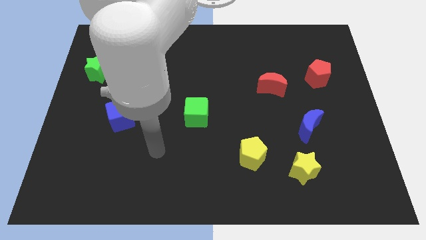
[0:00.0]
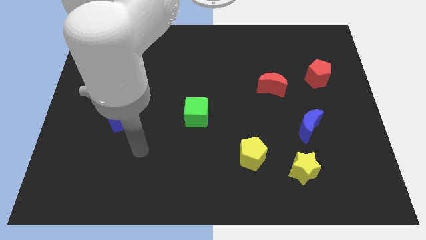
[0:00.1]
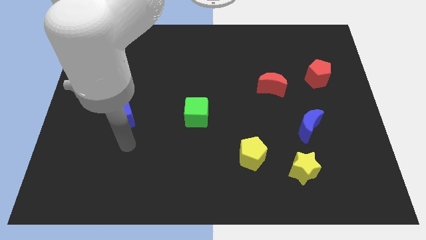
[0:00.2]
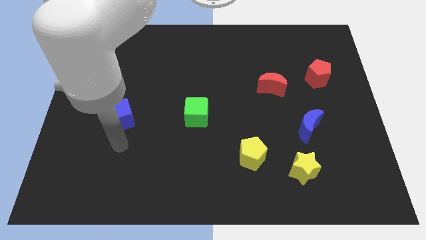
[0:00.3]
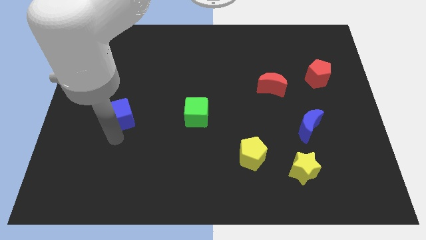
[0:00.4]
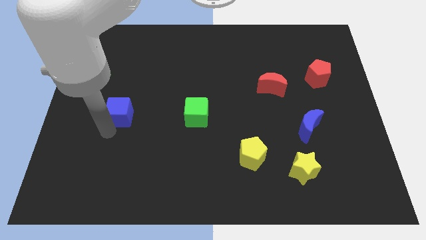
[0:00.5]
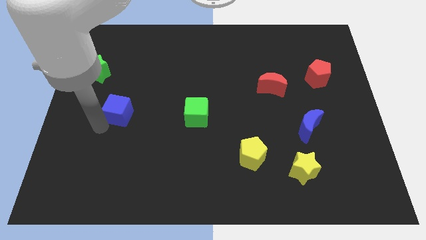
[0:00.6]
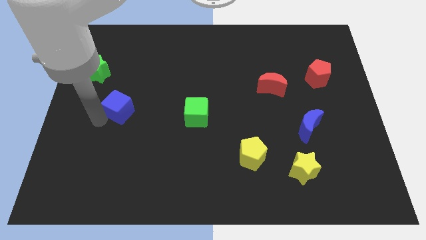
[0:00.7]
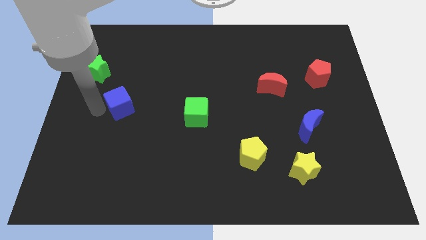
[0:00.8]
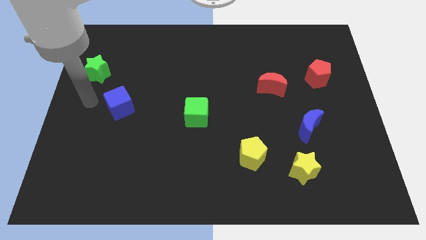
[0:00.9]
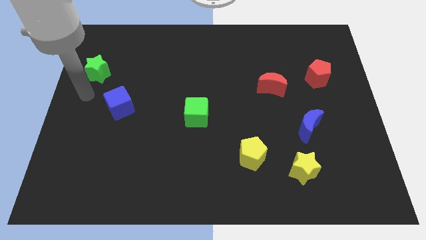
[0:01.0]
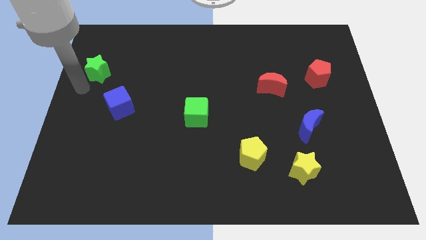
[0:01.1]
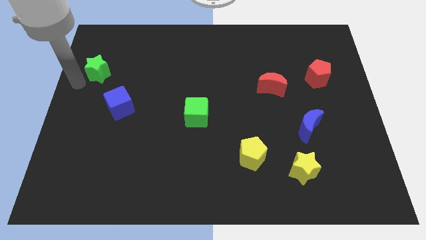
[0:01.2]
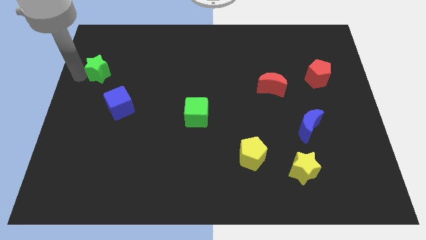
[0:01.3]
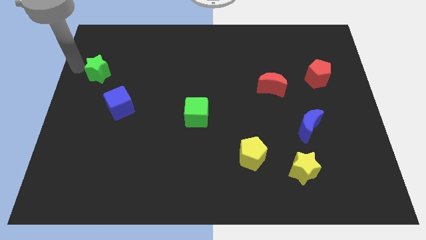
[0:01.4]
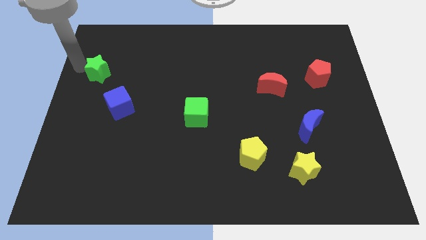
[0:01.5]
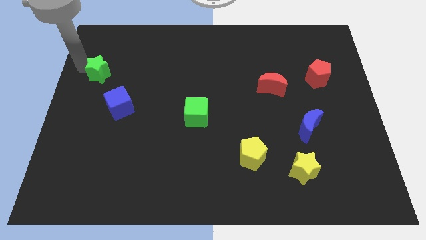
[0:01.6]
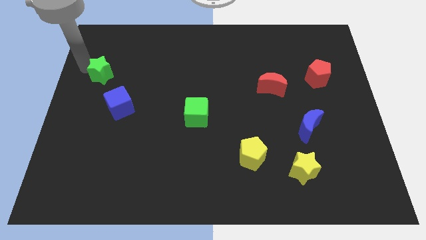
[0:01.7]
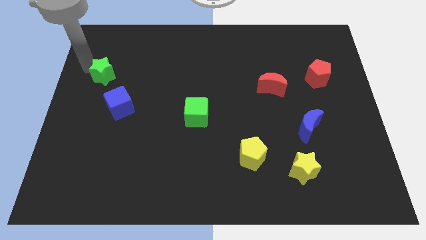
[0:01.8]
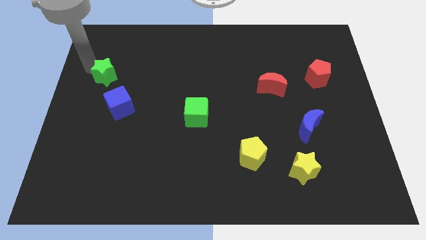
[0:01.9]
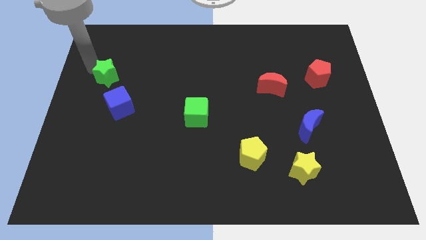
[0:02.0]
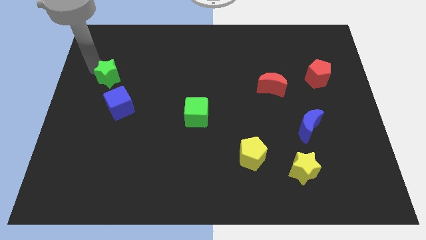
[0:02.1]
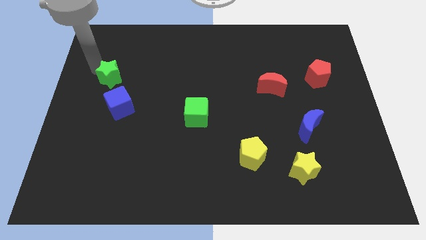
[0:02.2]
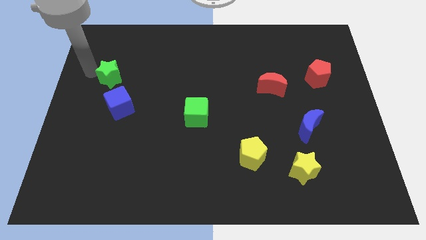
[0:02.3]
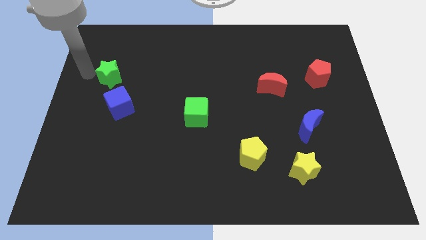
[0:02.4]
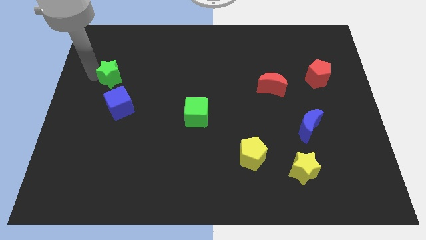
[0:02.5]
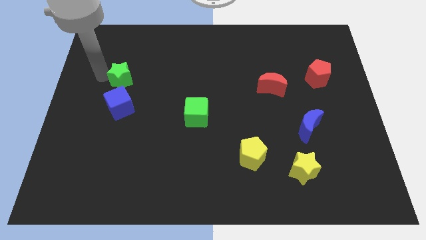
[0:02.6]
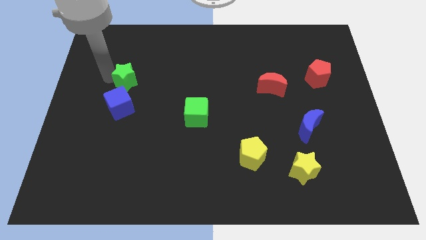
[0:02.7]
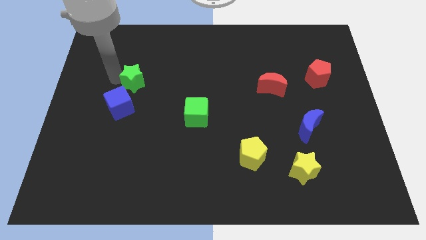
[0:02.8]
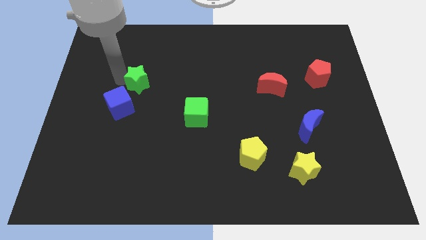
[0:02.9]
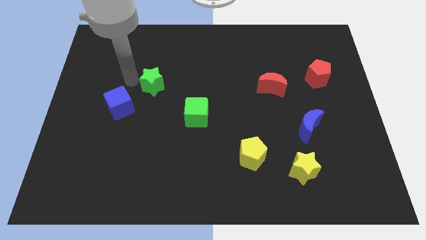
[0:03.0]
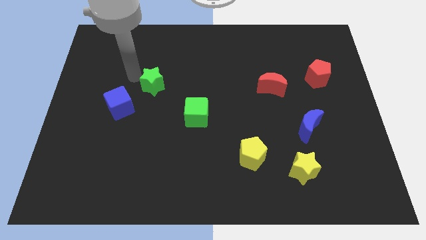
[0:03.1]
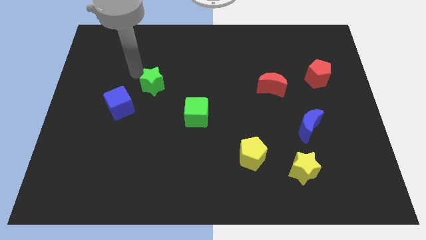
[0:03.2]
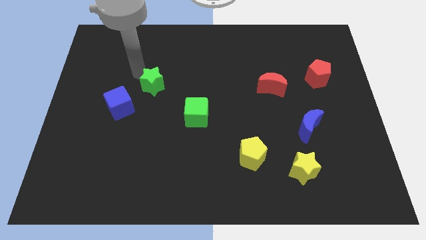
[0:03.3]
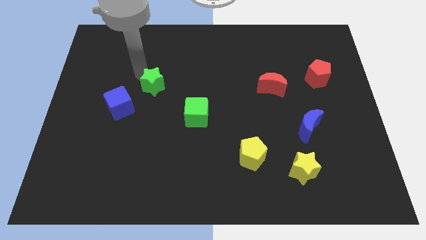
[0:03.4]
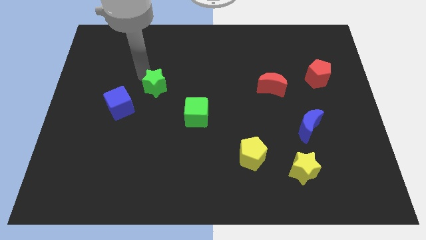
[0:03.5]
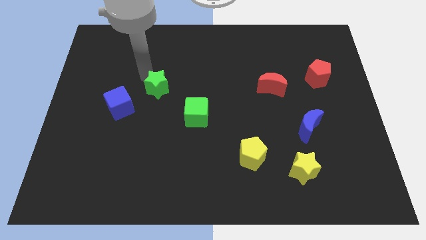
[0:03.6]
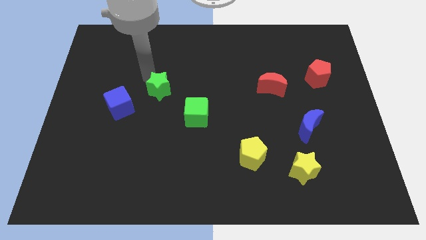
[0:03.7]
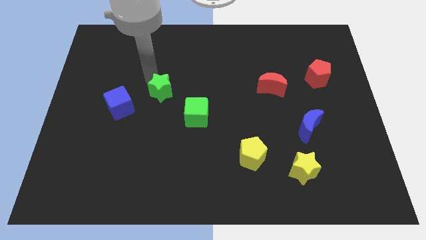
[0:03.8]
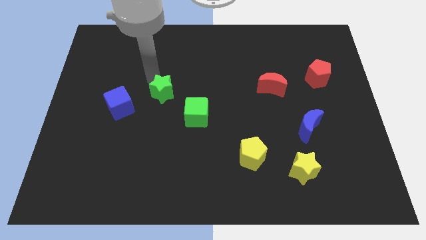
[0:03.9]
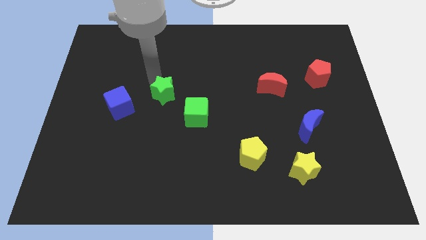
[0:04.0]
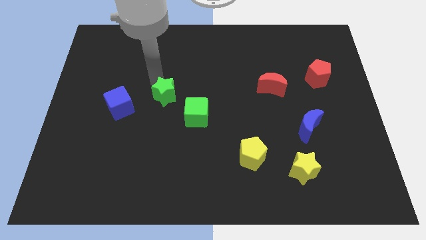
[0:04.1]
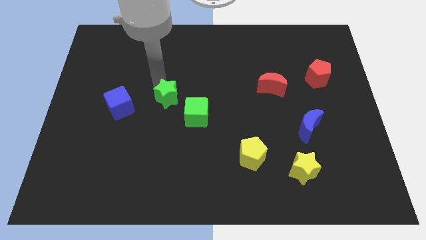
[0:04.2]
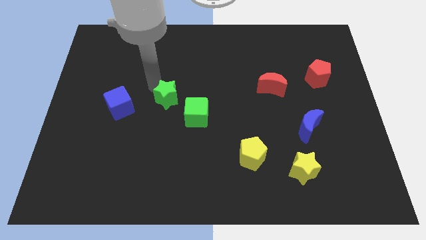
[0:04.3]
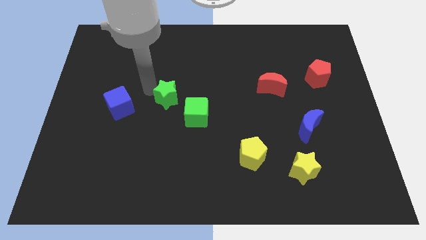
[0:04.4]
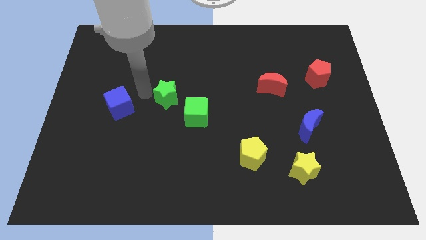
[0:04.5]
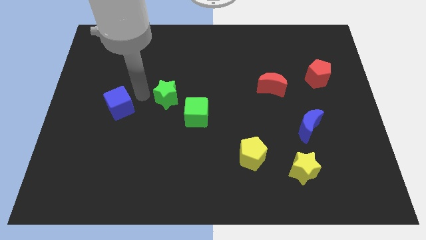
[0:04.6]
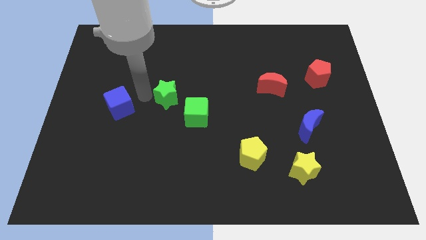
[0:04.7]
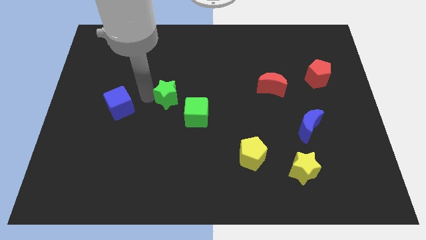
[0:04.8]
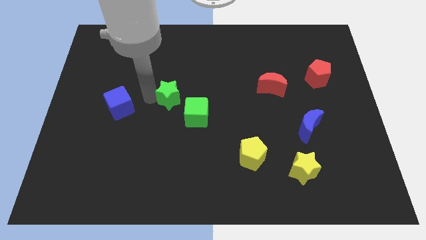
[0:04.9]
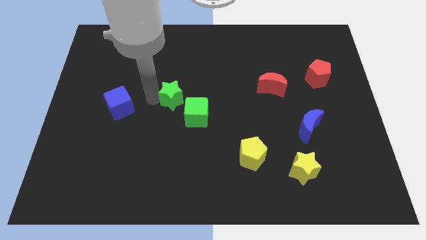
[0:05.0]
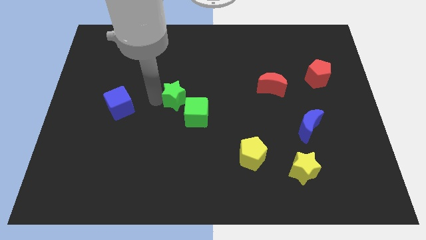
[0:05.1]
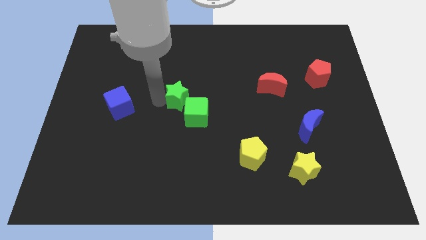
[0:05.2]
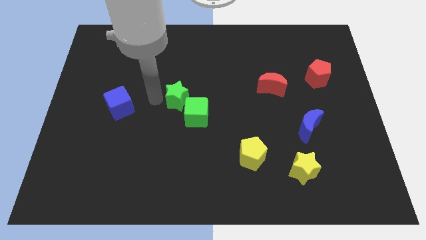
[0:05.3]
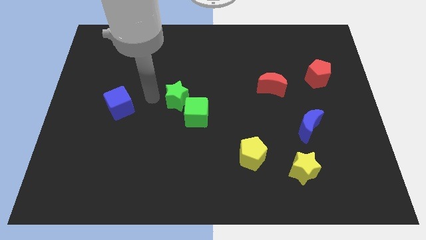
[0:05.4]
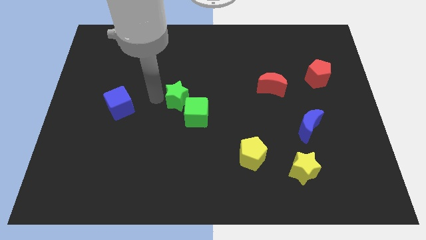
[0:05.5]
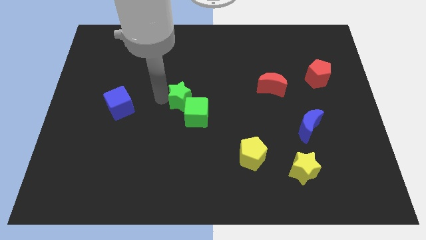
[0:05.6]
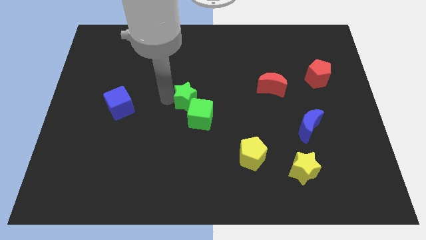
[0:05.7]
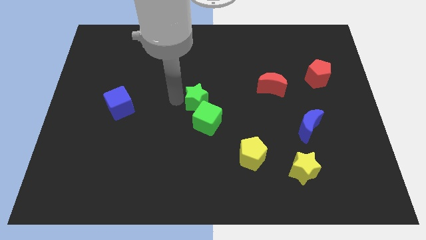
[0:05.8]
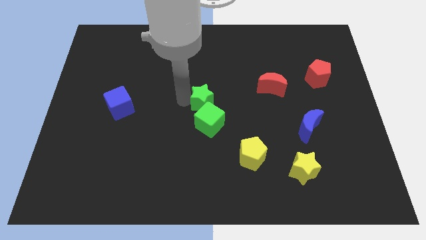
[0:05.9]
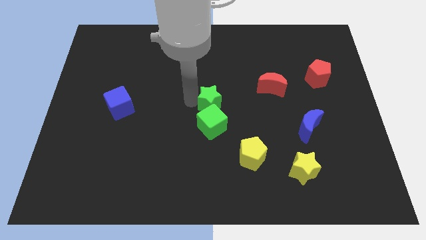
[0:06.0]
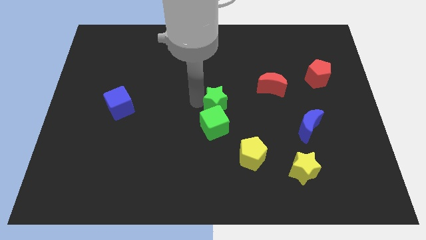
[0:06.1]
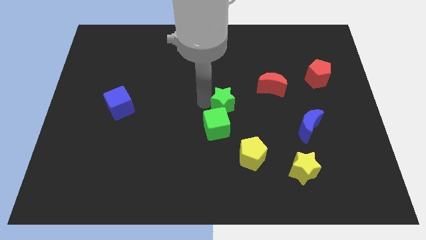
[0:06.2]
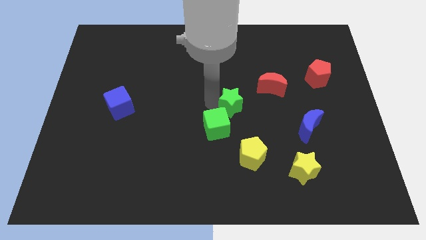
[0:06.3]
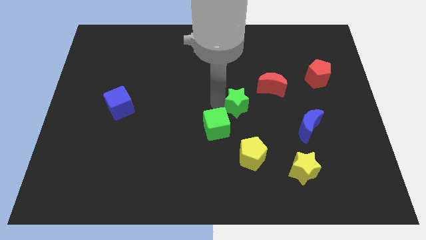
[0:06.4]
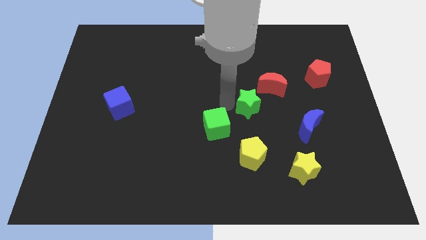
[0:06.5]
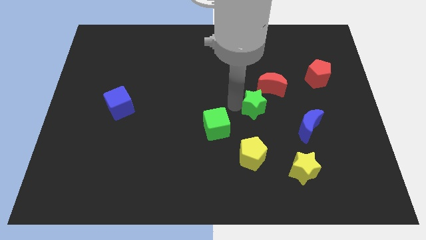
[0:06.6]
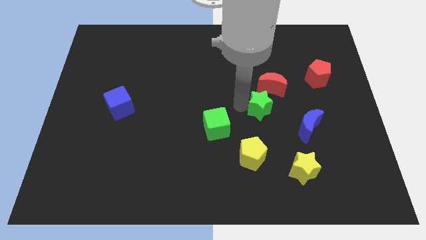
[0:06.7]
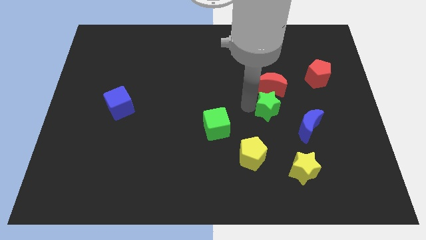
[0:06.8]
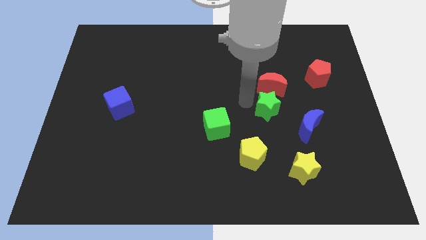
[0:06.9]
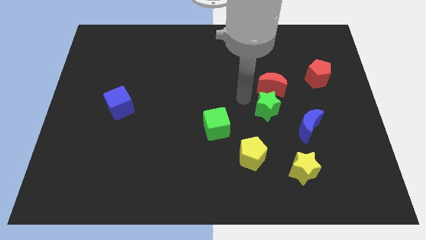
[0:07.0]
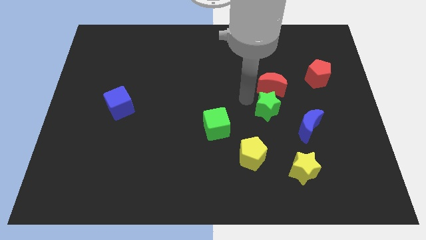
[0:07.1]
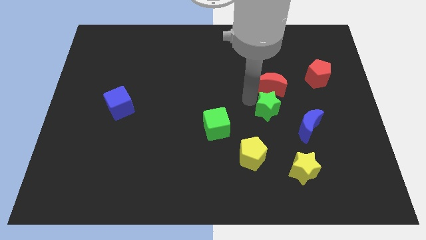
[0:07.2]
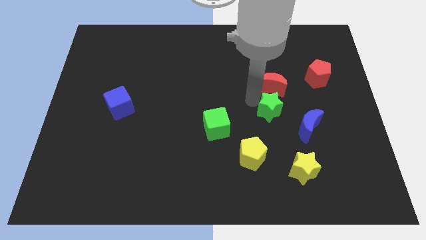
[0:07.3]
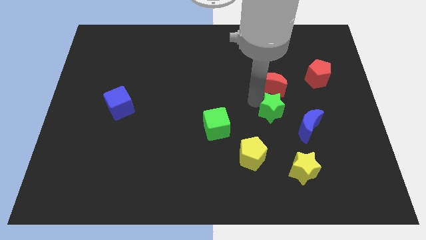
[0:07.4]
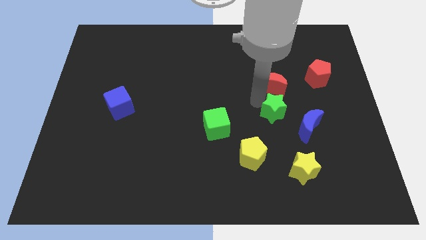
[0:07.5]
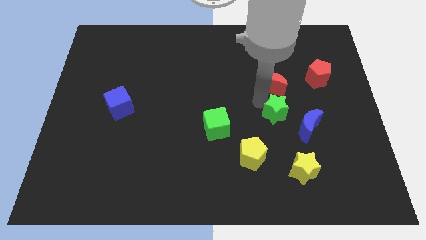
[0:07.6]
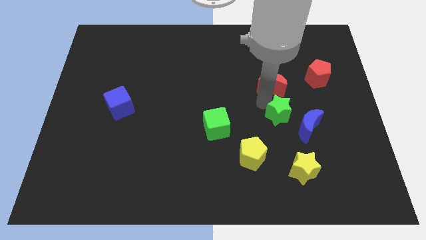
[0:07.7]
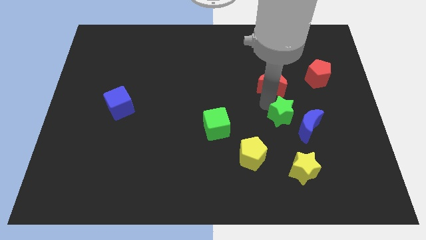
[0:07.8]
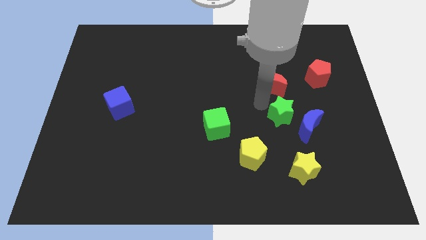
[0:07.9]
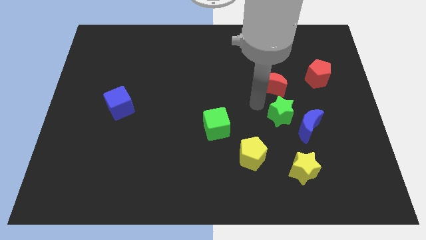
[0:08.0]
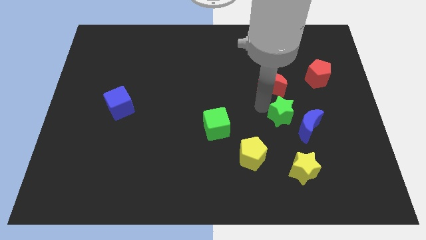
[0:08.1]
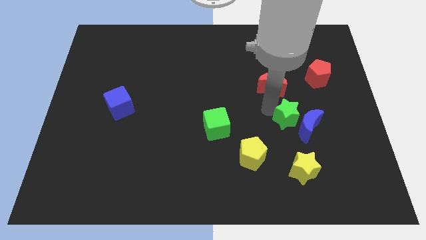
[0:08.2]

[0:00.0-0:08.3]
move the green star close to the blue moon
